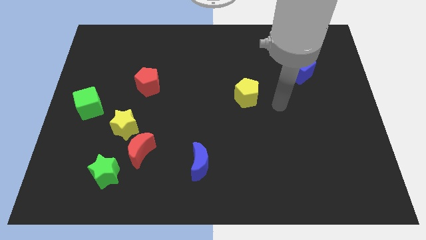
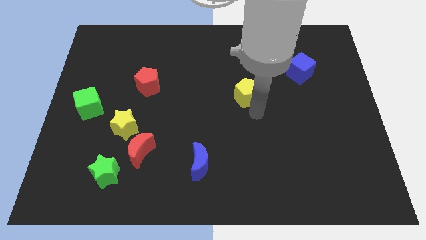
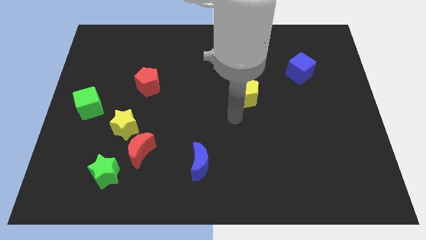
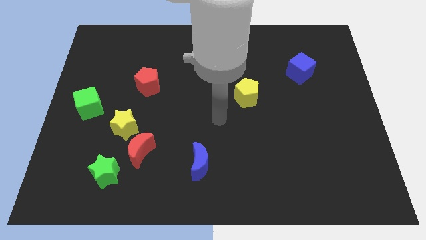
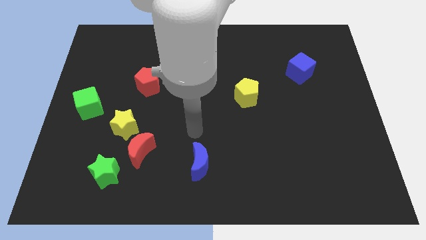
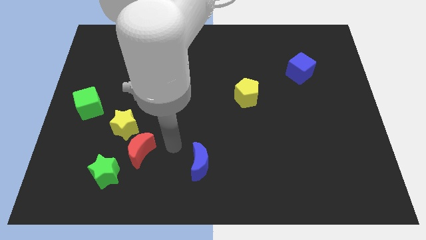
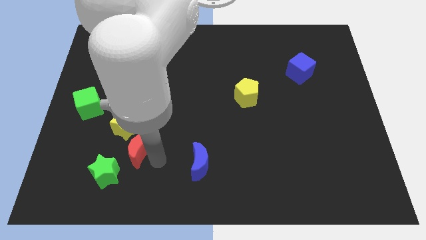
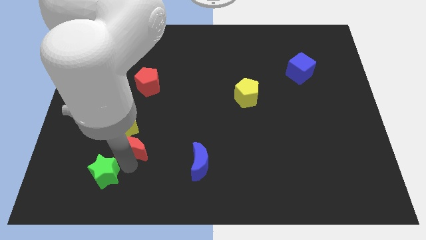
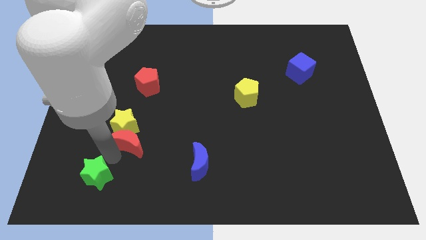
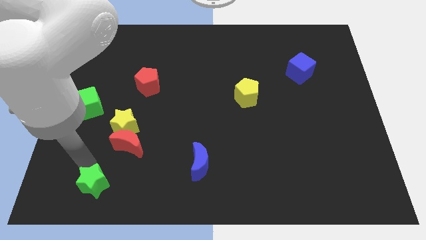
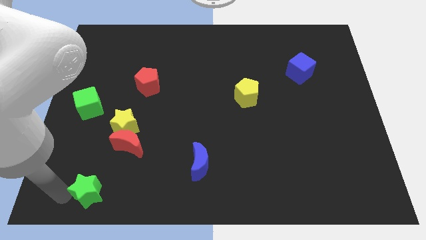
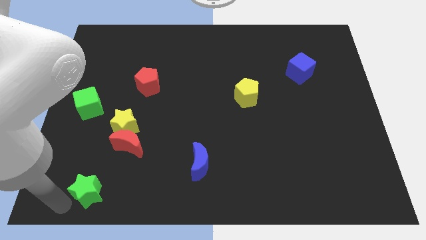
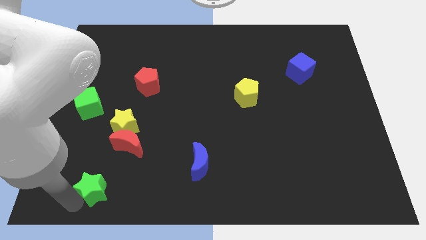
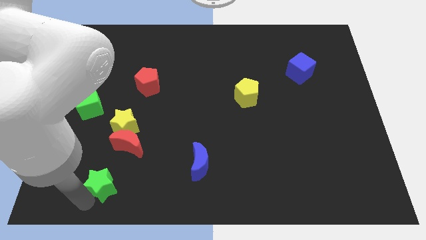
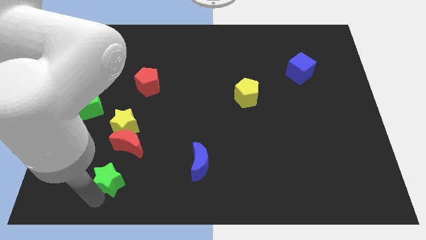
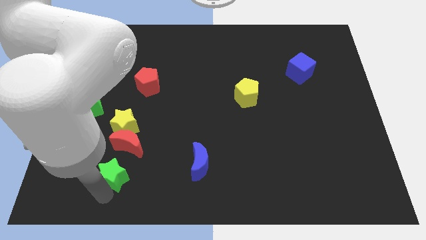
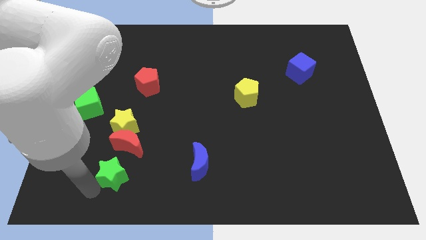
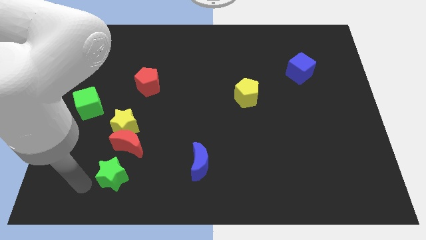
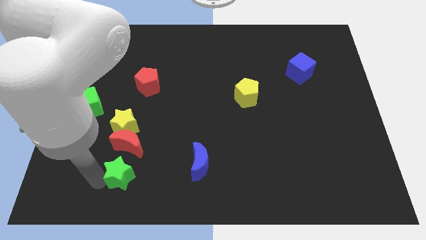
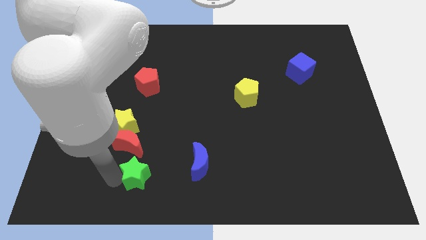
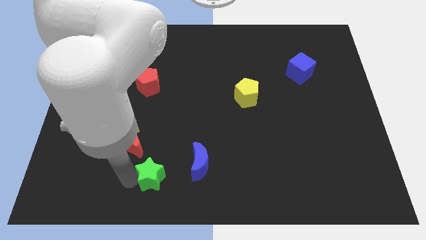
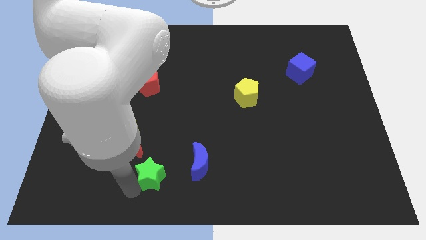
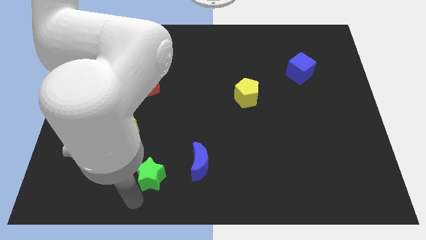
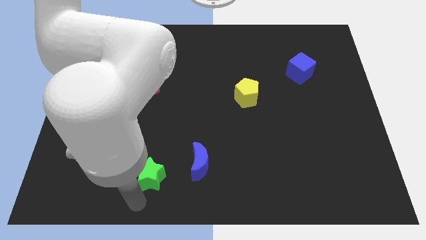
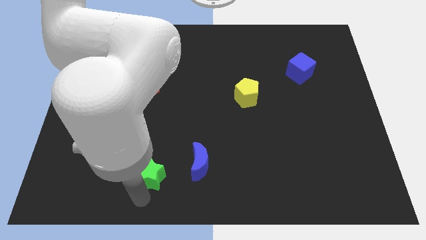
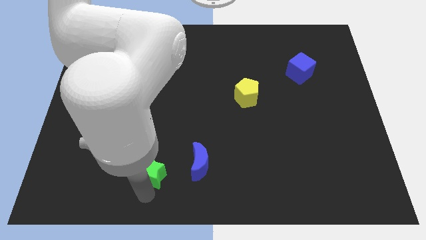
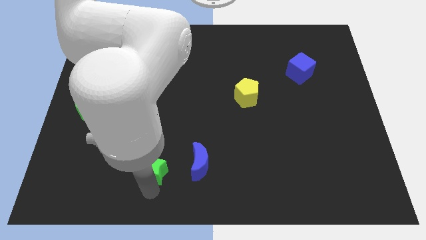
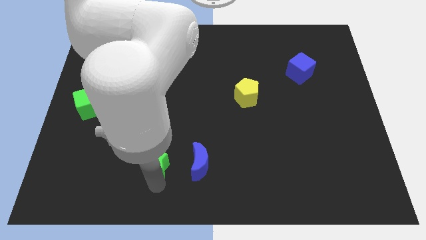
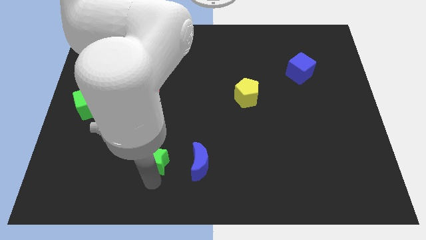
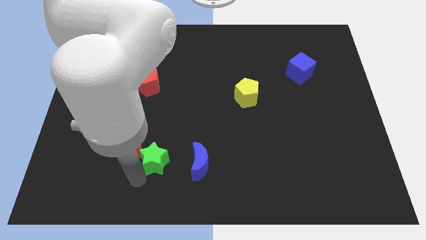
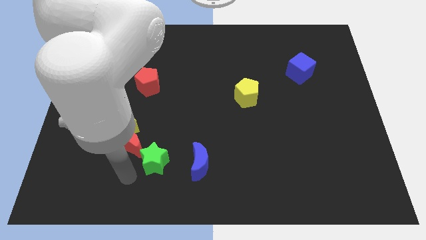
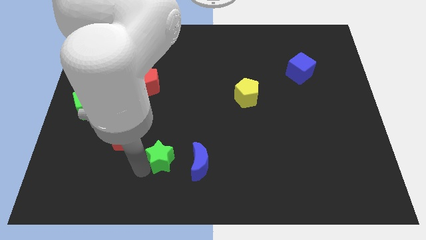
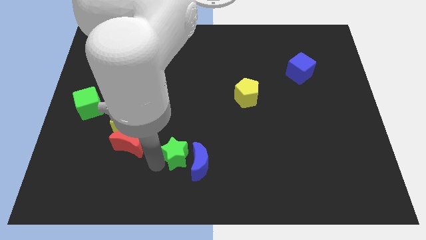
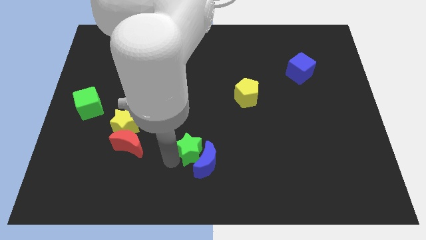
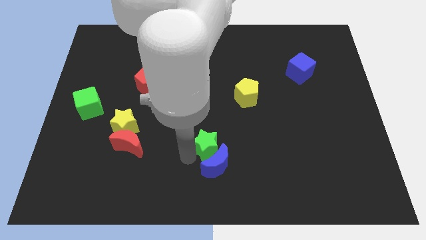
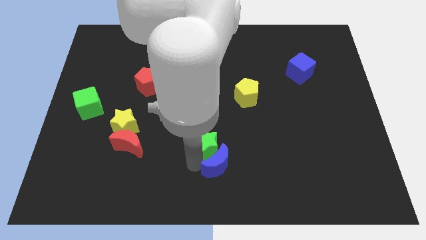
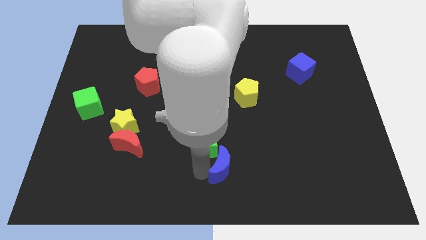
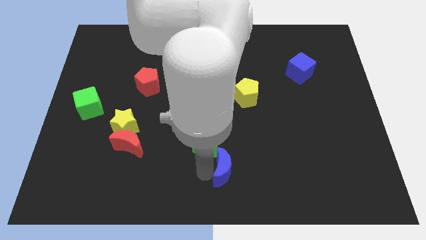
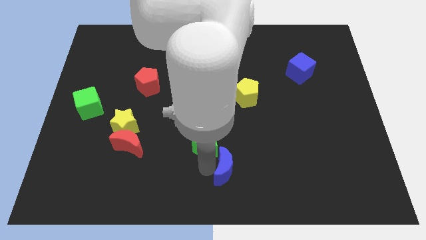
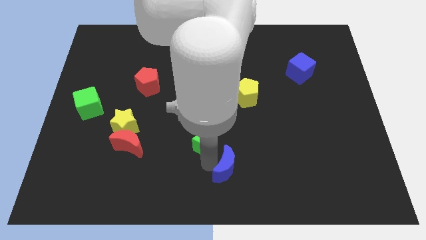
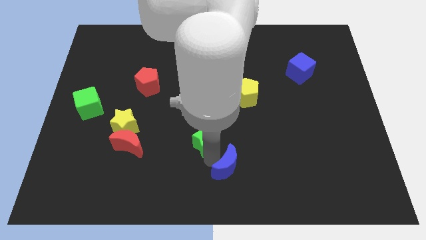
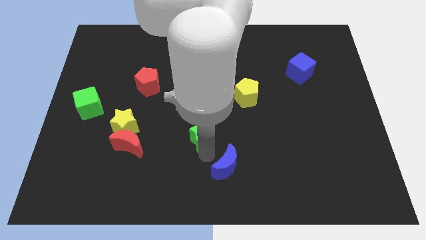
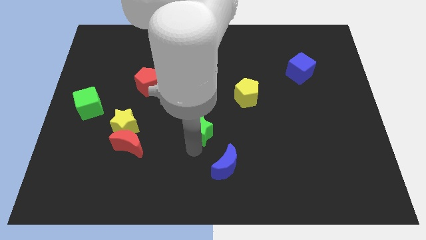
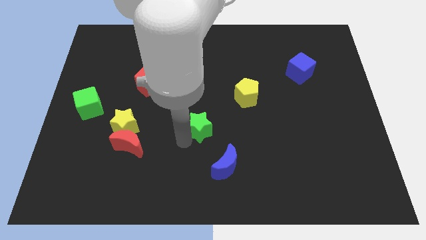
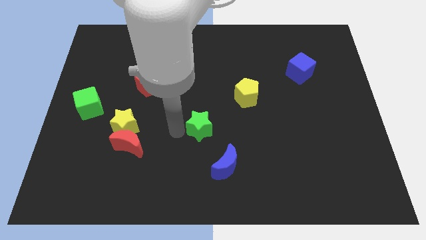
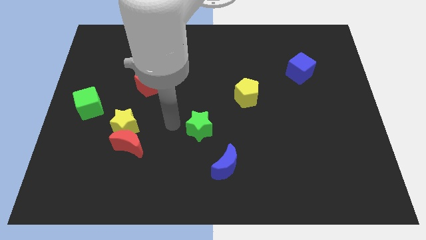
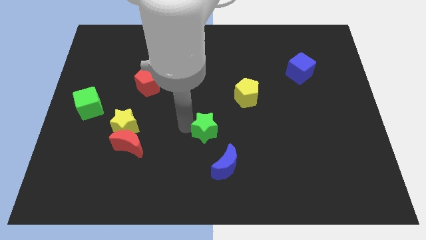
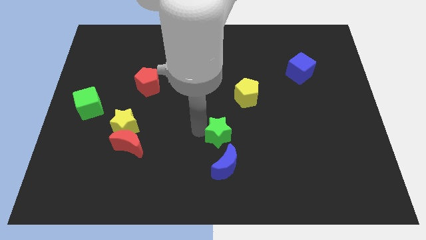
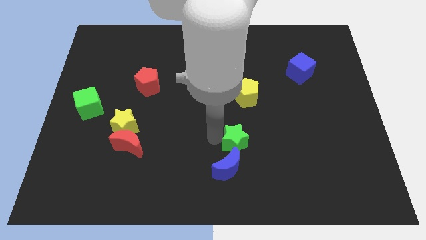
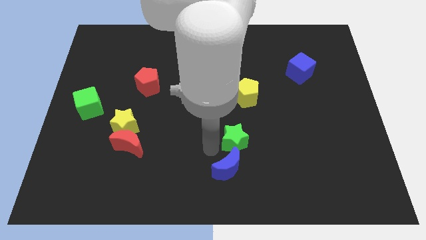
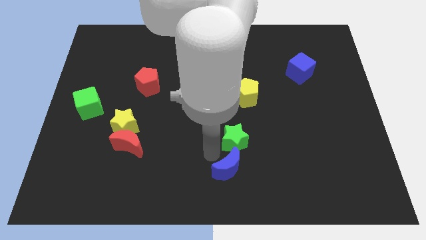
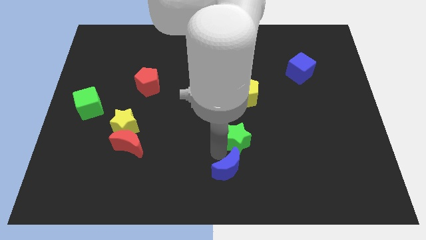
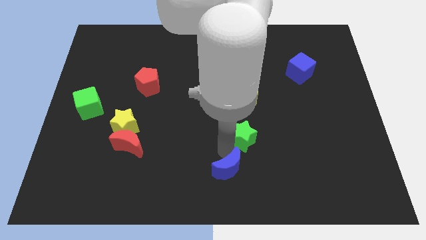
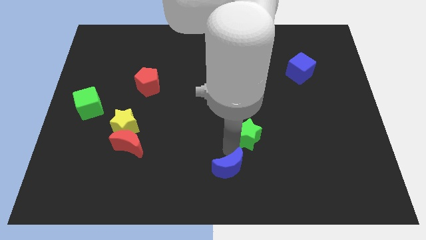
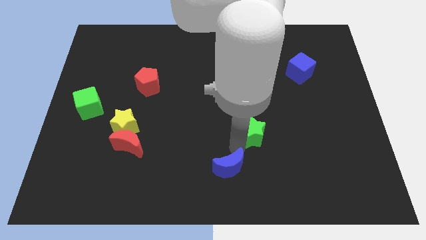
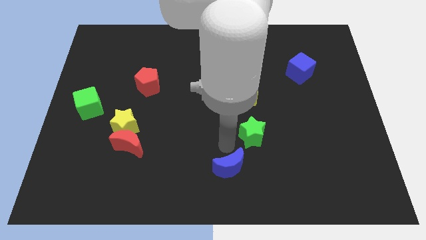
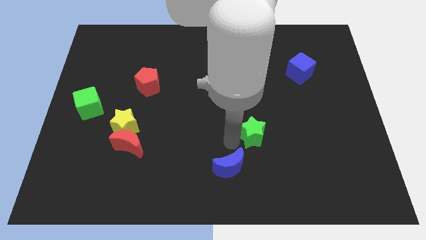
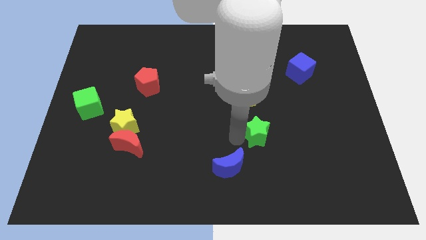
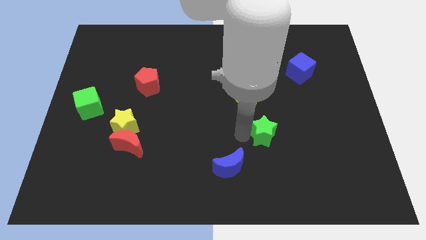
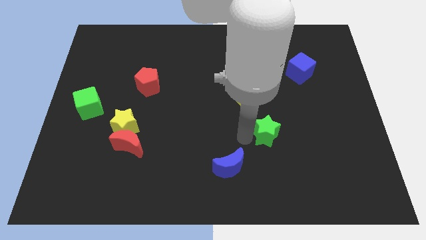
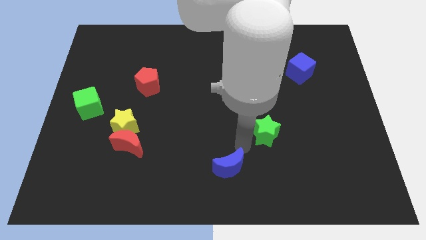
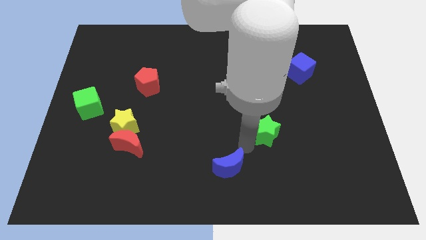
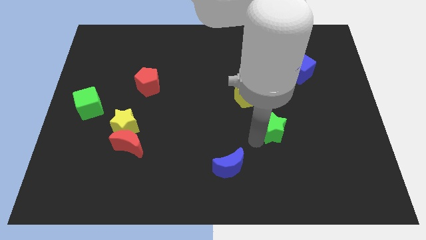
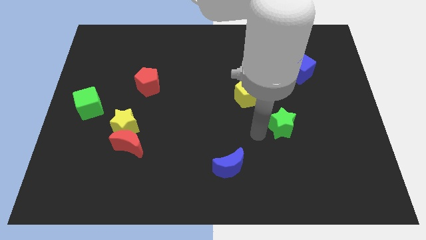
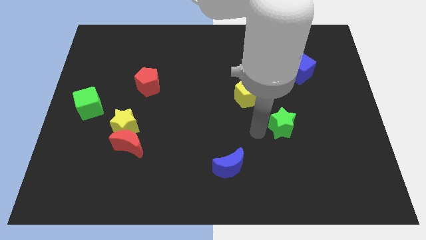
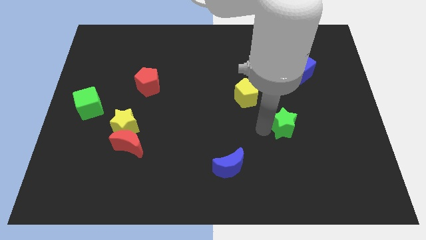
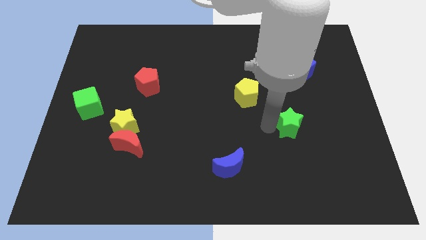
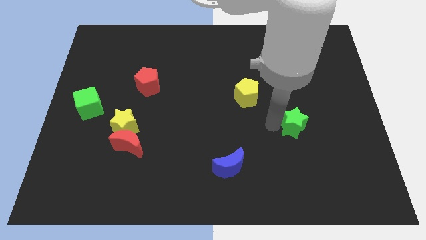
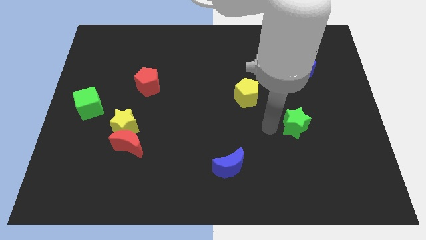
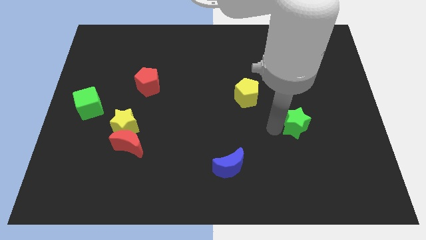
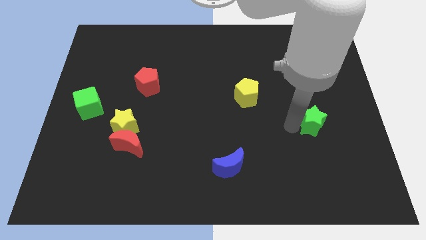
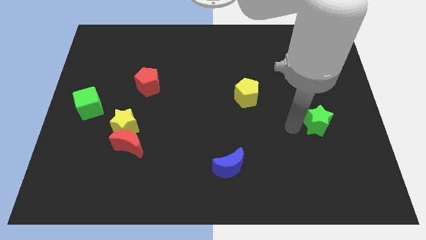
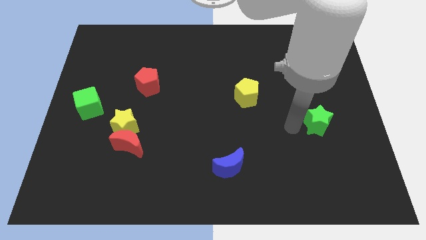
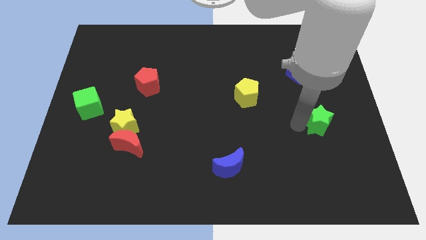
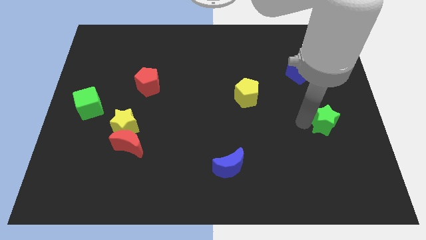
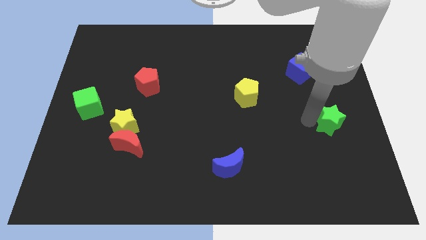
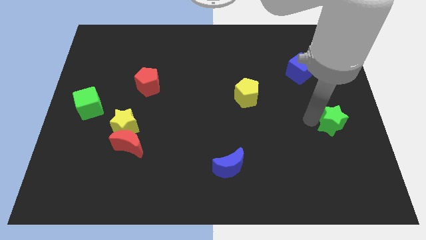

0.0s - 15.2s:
put the green star to the right side of the board
